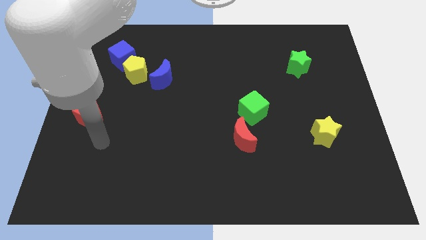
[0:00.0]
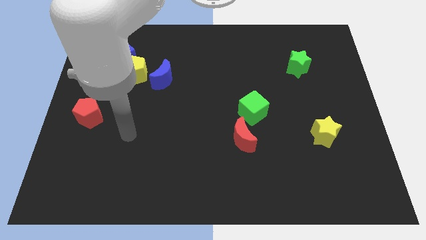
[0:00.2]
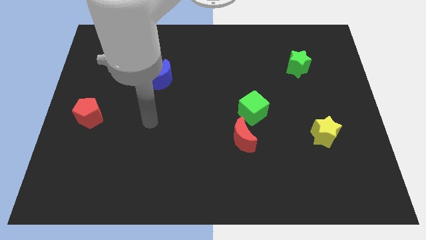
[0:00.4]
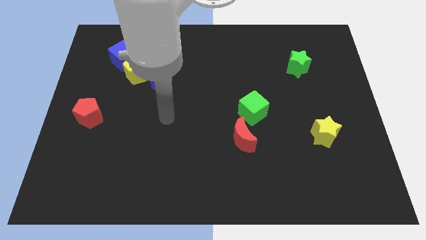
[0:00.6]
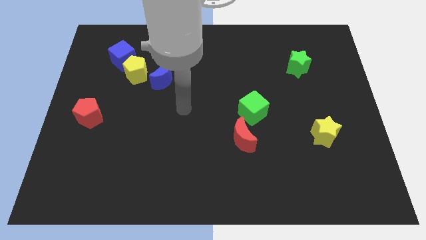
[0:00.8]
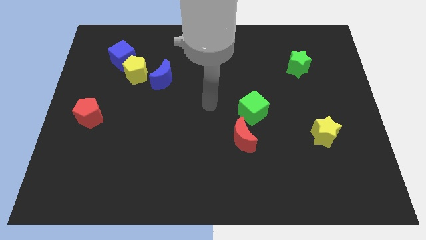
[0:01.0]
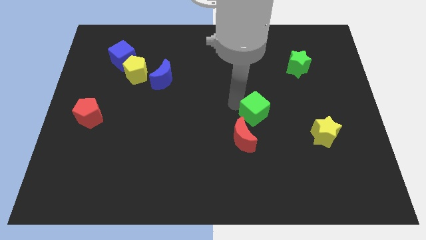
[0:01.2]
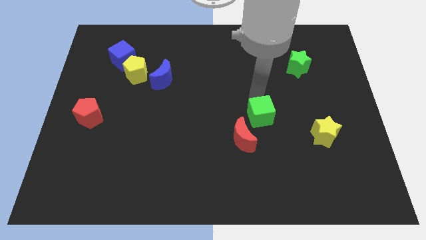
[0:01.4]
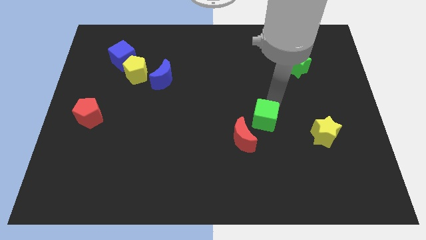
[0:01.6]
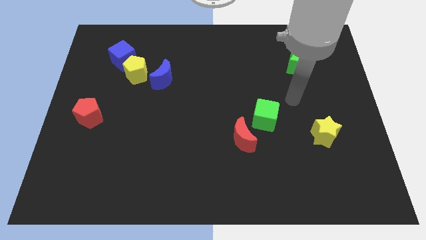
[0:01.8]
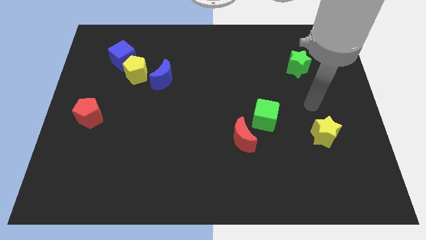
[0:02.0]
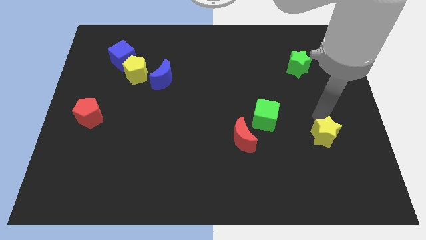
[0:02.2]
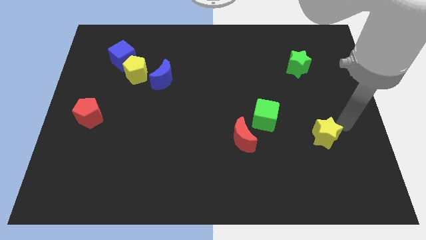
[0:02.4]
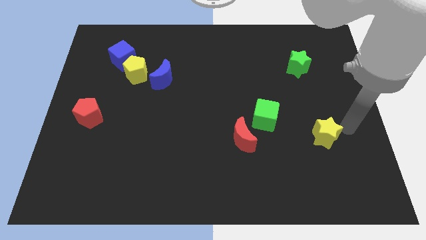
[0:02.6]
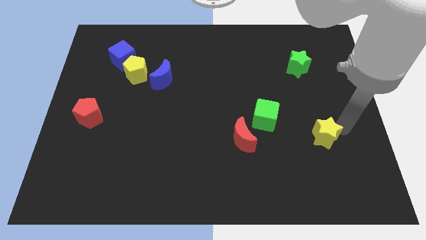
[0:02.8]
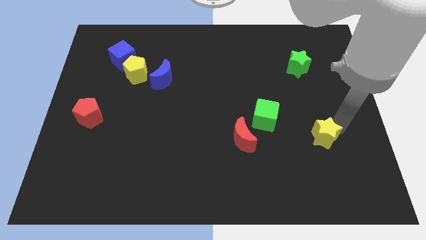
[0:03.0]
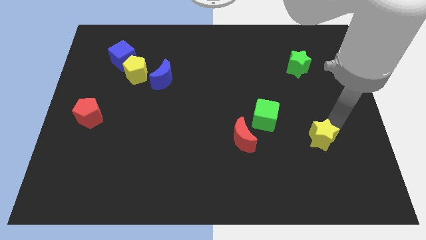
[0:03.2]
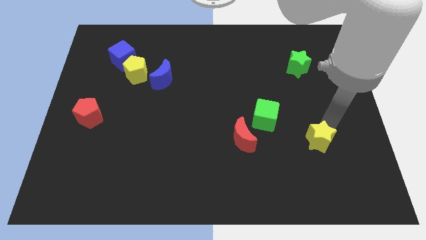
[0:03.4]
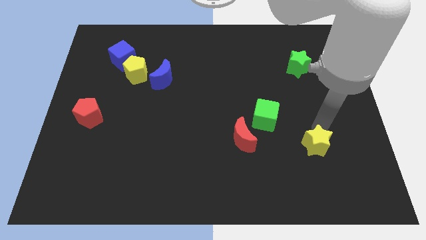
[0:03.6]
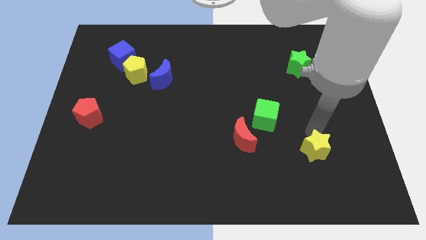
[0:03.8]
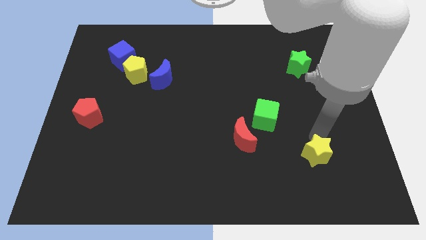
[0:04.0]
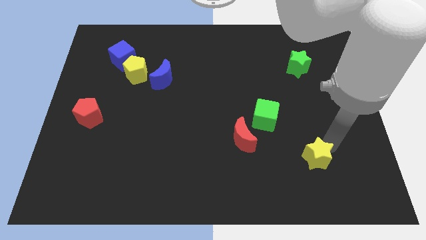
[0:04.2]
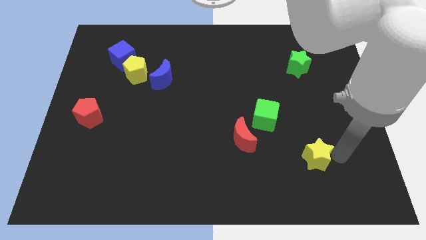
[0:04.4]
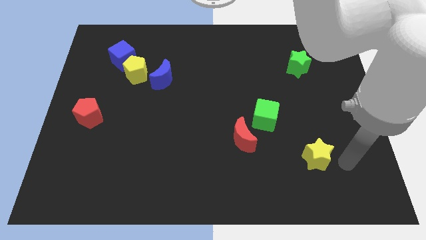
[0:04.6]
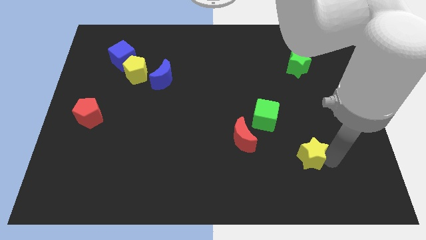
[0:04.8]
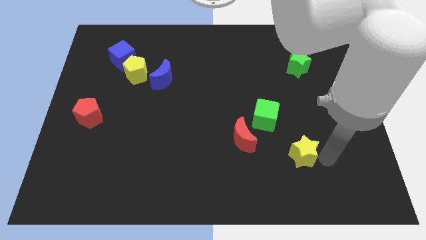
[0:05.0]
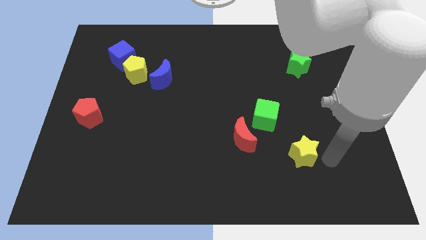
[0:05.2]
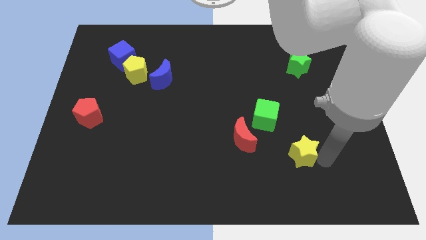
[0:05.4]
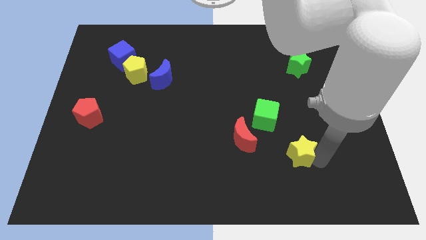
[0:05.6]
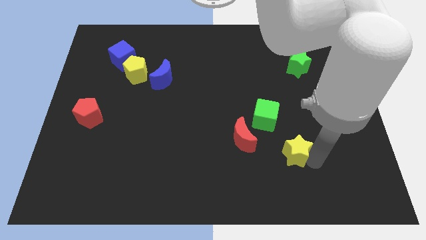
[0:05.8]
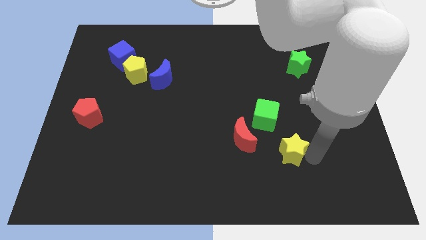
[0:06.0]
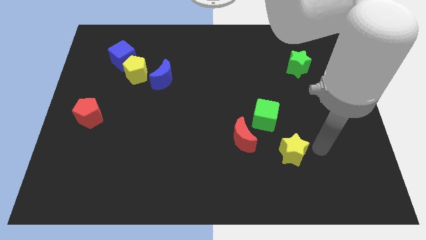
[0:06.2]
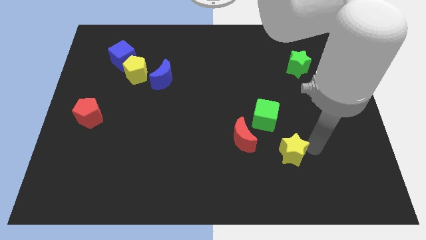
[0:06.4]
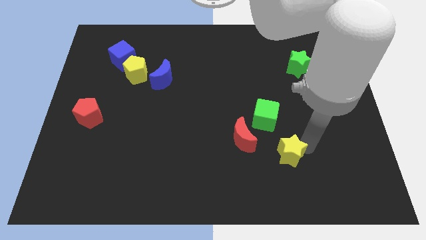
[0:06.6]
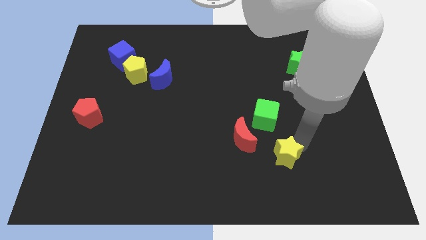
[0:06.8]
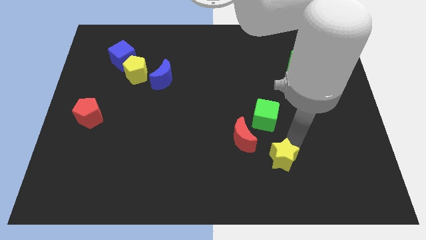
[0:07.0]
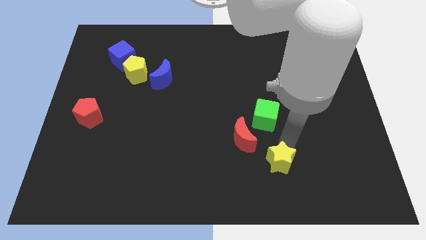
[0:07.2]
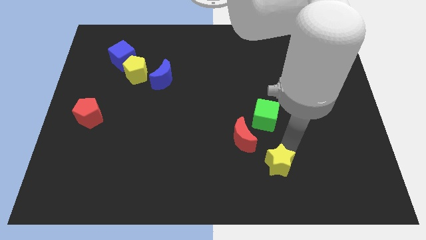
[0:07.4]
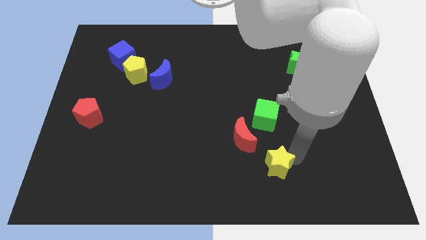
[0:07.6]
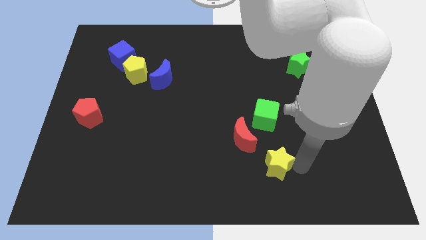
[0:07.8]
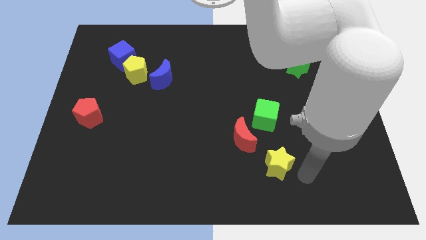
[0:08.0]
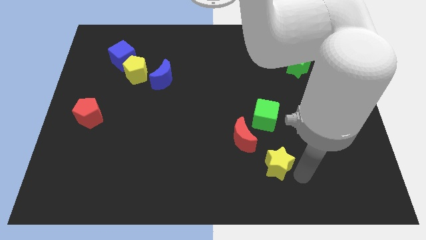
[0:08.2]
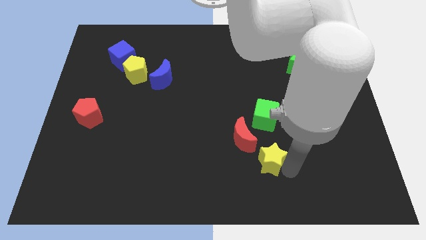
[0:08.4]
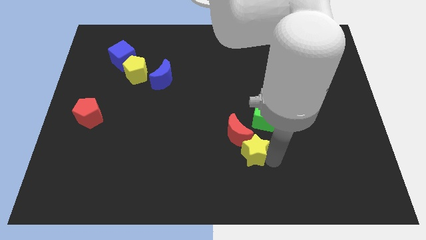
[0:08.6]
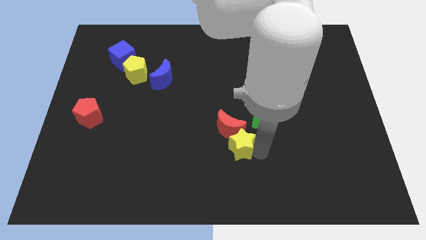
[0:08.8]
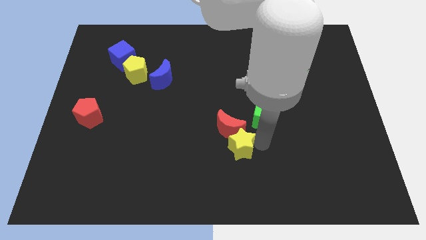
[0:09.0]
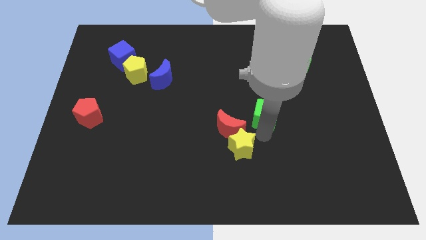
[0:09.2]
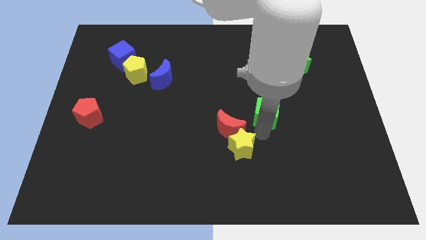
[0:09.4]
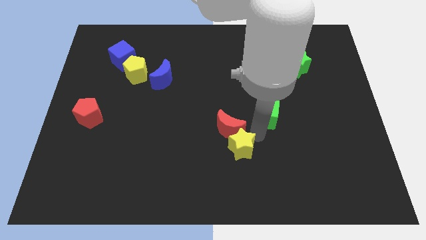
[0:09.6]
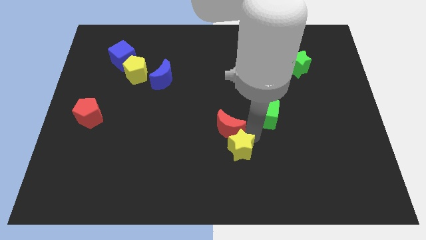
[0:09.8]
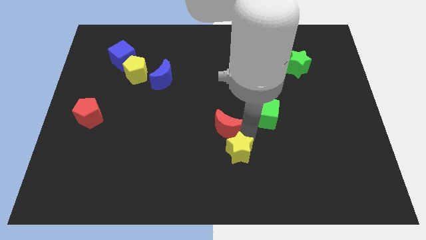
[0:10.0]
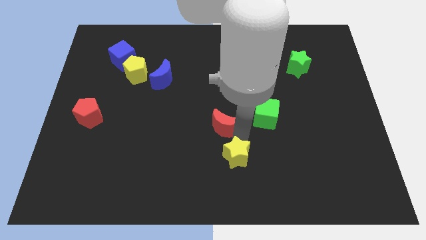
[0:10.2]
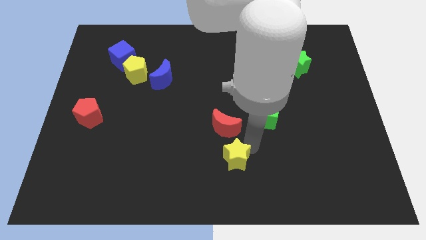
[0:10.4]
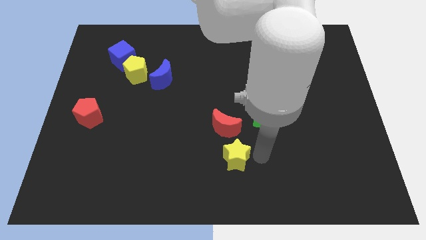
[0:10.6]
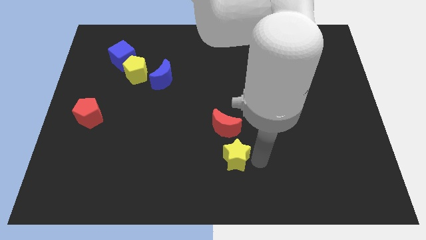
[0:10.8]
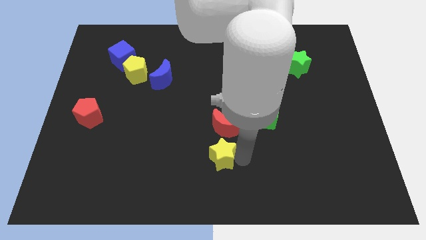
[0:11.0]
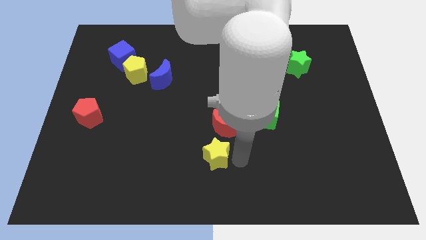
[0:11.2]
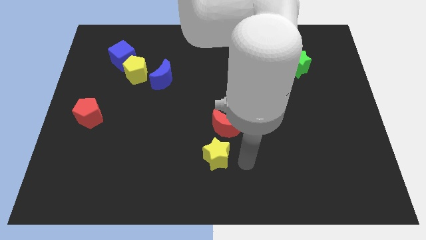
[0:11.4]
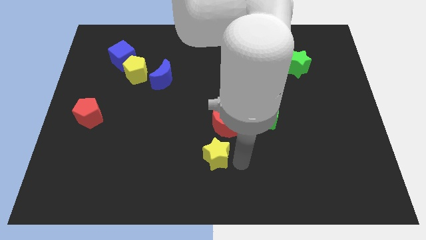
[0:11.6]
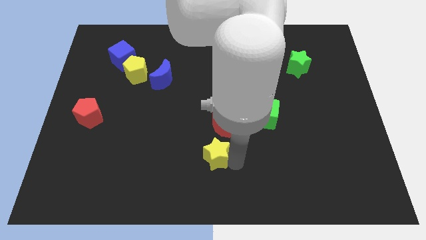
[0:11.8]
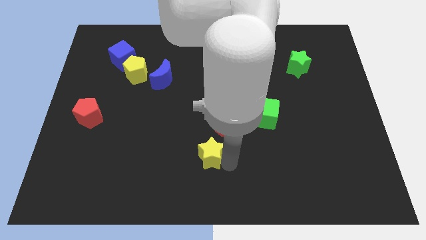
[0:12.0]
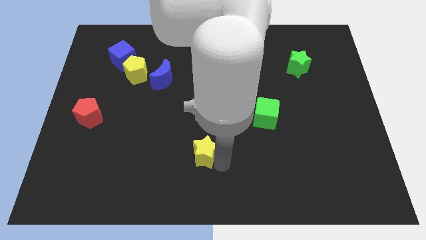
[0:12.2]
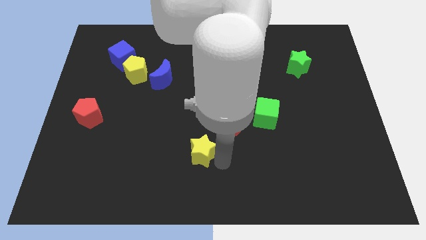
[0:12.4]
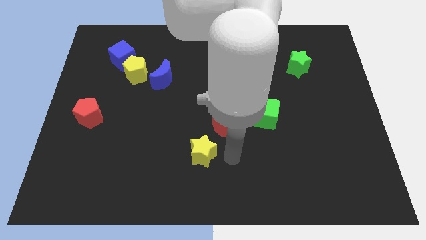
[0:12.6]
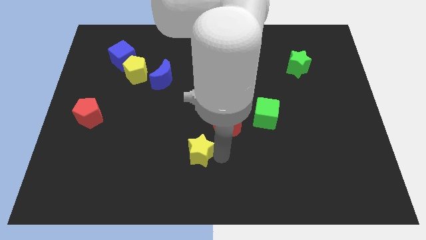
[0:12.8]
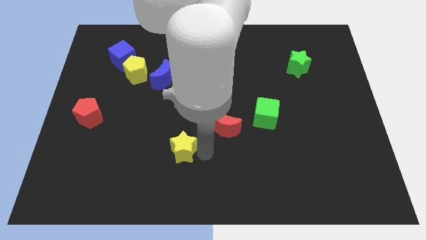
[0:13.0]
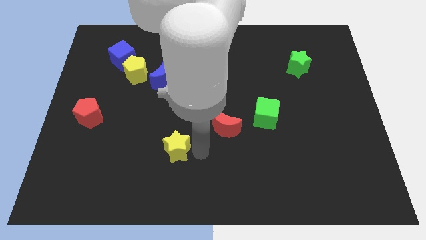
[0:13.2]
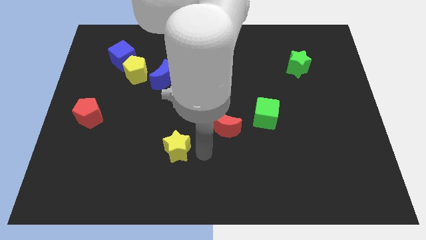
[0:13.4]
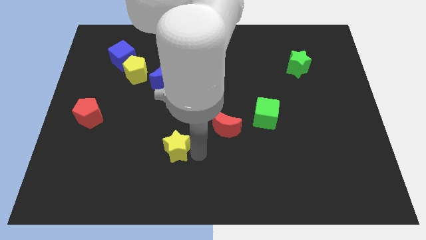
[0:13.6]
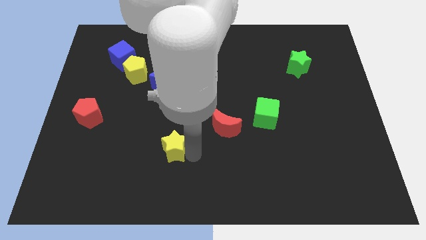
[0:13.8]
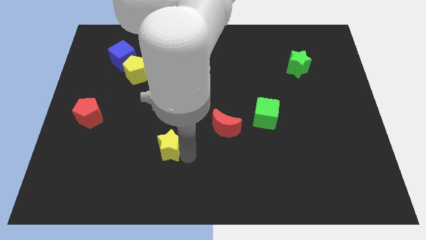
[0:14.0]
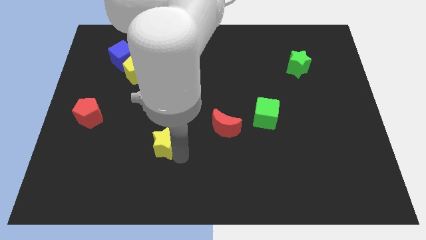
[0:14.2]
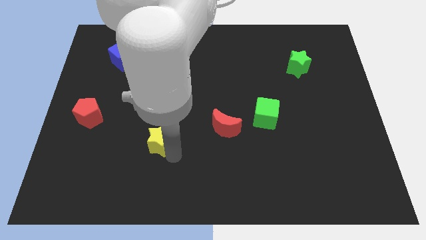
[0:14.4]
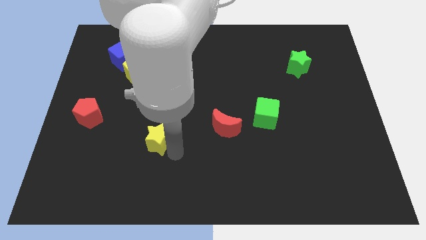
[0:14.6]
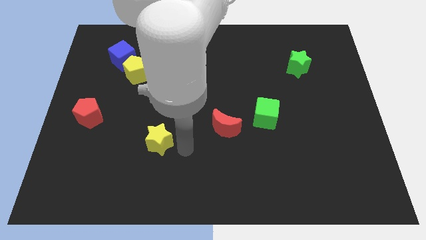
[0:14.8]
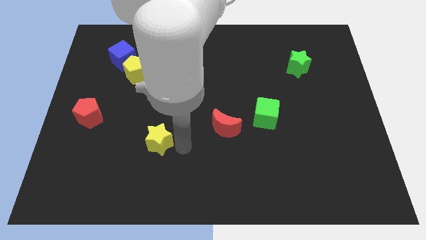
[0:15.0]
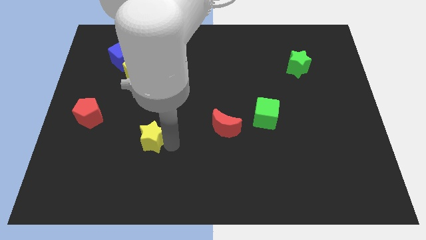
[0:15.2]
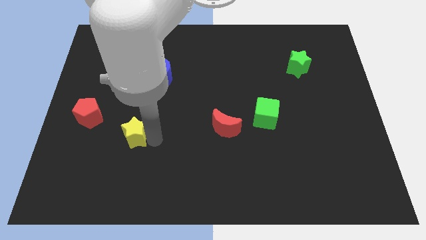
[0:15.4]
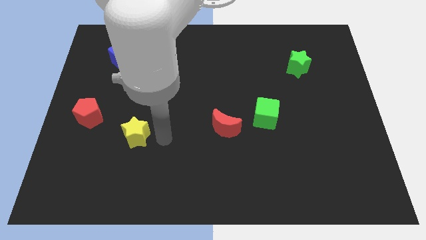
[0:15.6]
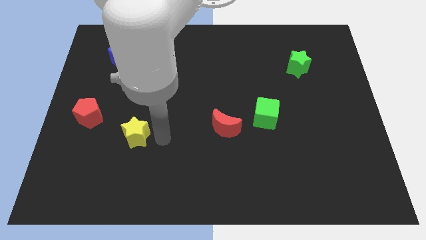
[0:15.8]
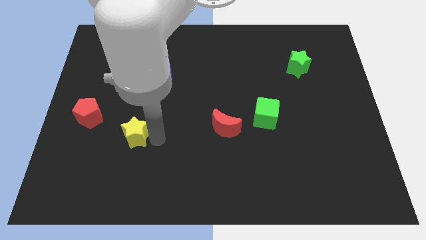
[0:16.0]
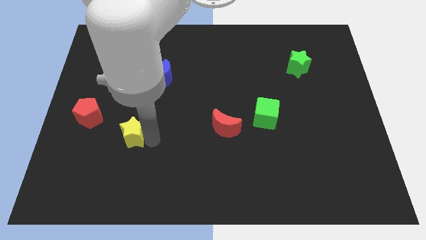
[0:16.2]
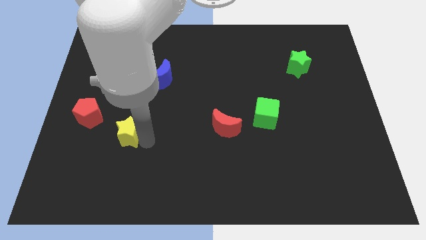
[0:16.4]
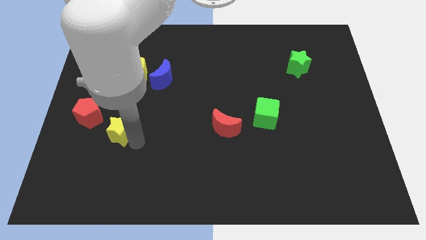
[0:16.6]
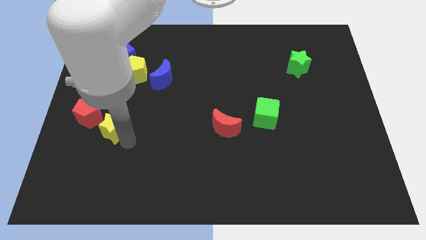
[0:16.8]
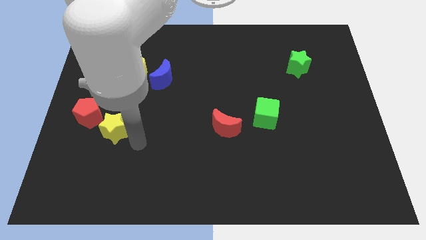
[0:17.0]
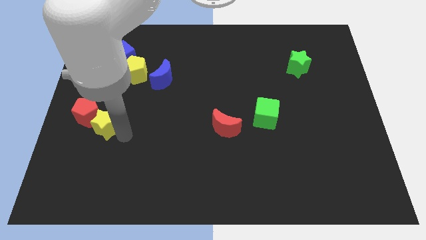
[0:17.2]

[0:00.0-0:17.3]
put the yellow star next to the red pentagon
